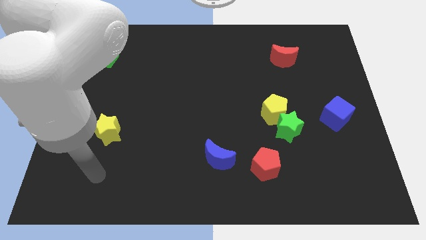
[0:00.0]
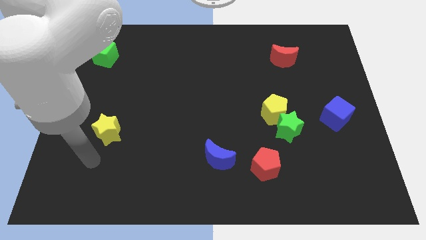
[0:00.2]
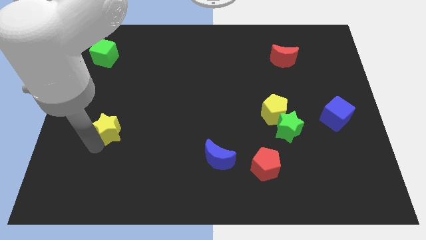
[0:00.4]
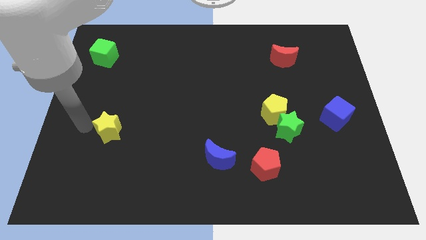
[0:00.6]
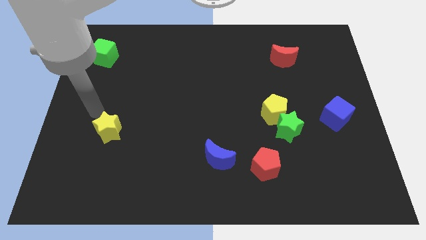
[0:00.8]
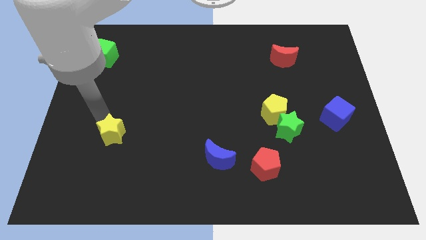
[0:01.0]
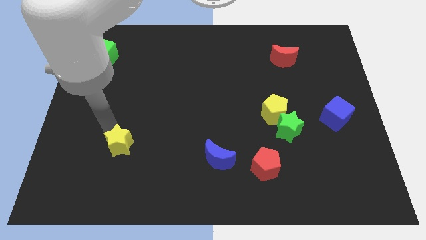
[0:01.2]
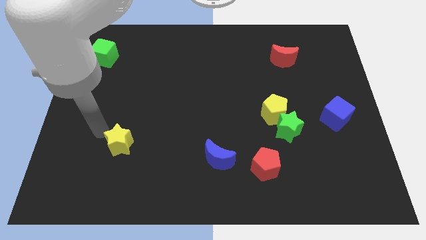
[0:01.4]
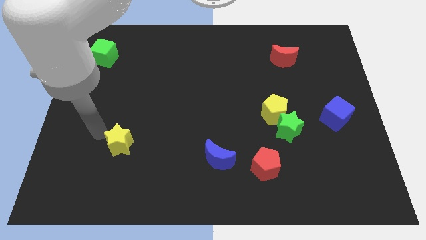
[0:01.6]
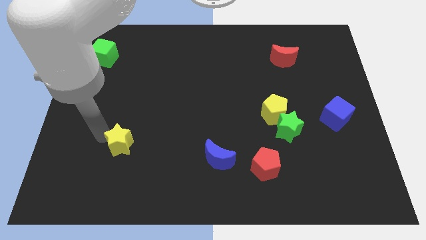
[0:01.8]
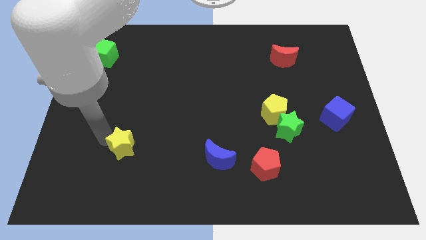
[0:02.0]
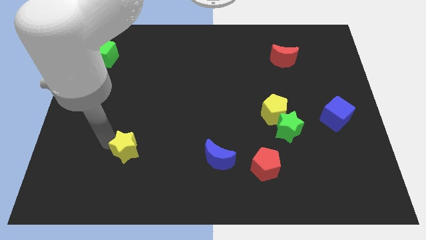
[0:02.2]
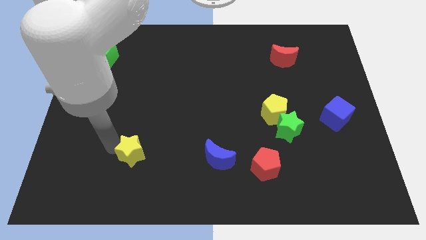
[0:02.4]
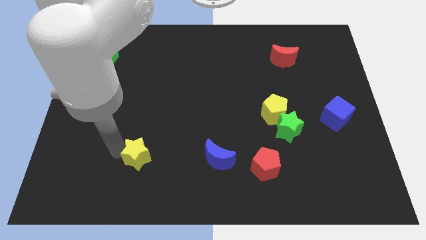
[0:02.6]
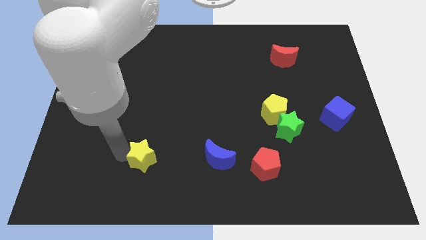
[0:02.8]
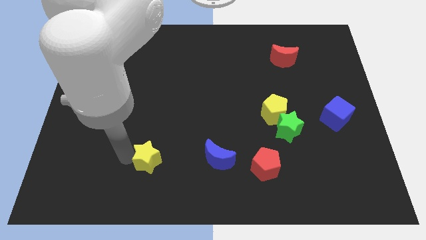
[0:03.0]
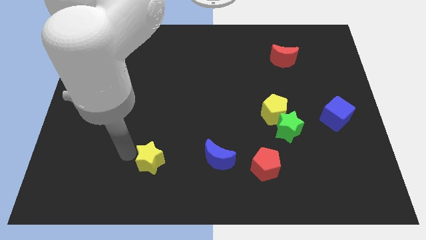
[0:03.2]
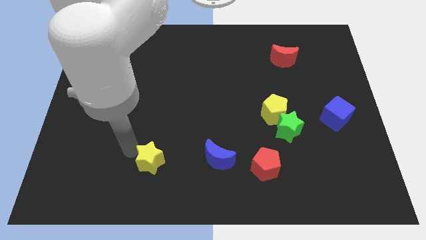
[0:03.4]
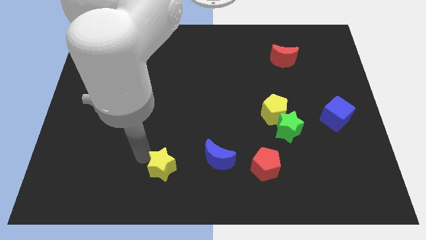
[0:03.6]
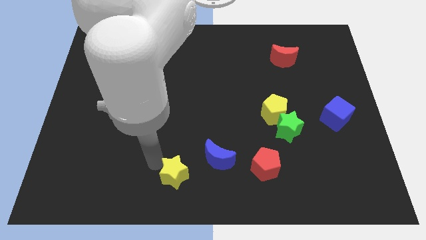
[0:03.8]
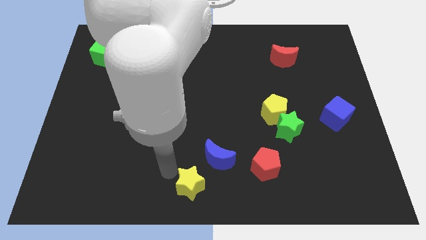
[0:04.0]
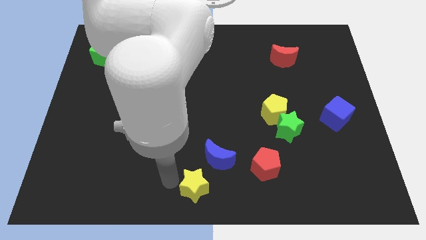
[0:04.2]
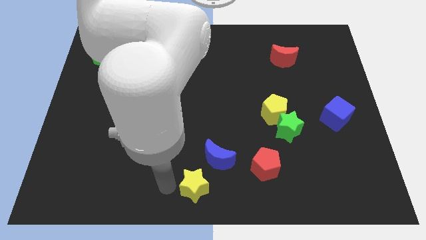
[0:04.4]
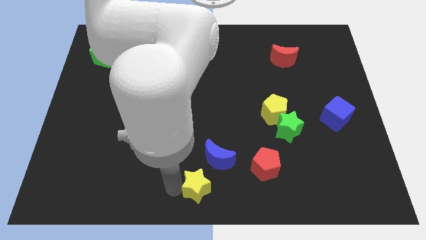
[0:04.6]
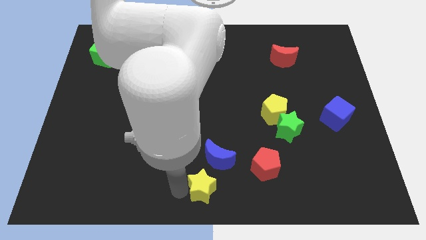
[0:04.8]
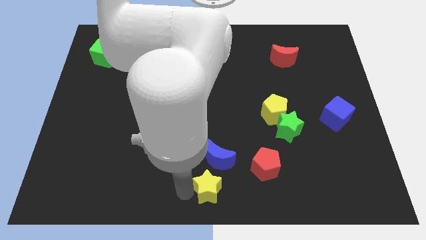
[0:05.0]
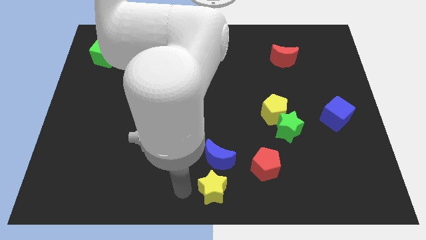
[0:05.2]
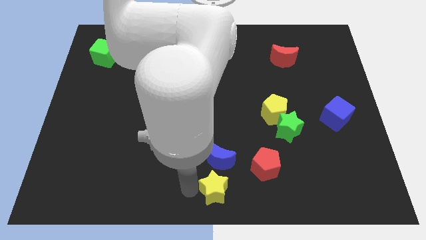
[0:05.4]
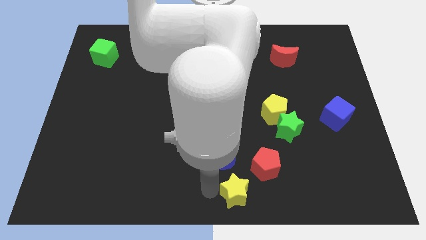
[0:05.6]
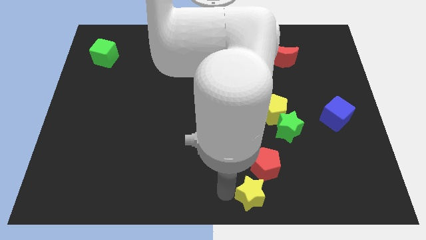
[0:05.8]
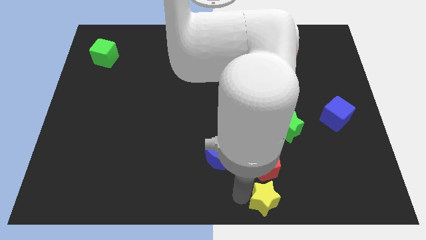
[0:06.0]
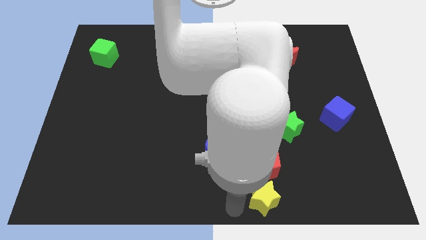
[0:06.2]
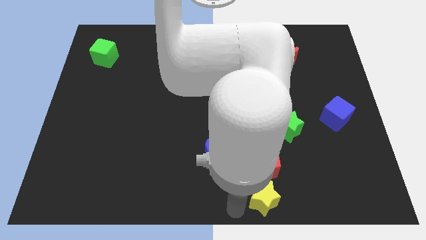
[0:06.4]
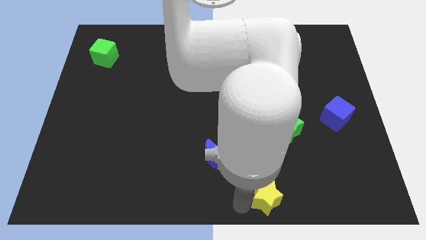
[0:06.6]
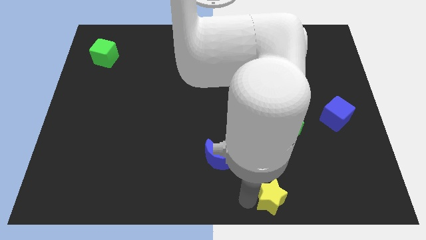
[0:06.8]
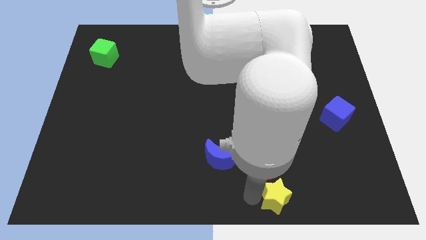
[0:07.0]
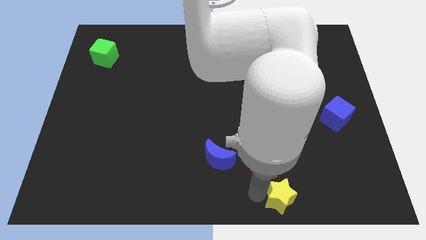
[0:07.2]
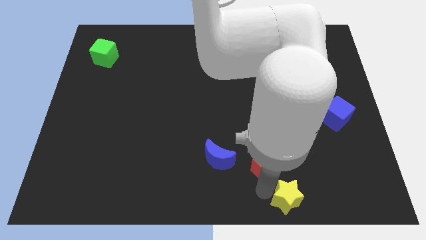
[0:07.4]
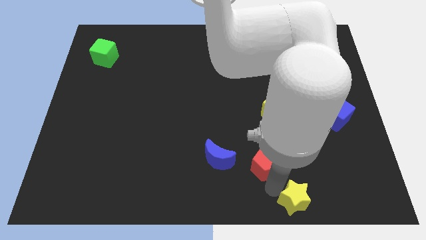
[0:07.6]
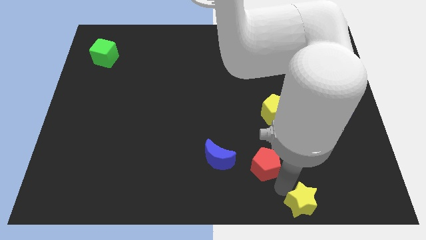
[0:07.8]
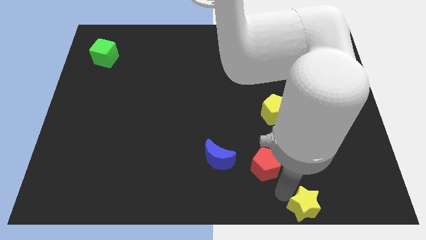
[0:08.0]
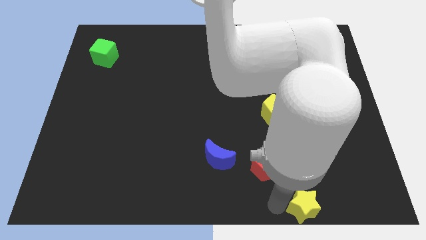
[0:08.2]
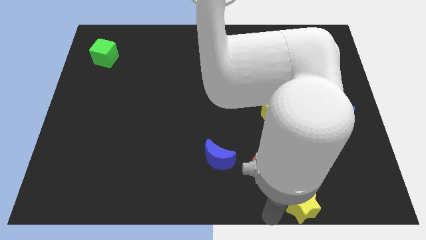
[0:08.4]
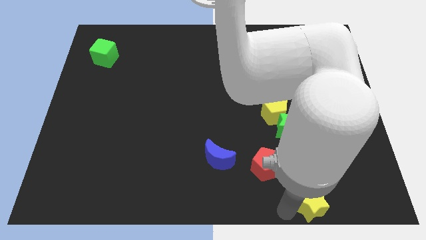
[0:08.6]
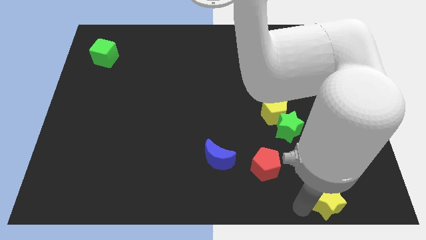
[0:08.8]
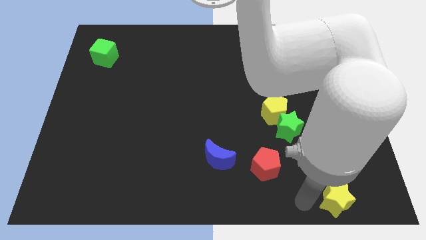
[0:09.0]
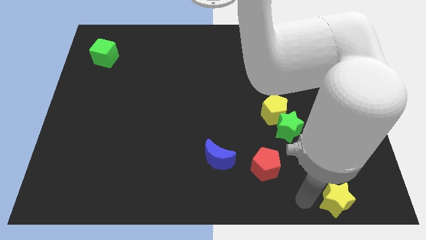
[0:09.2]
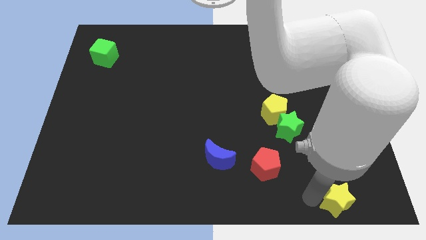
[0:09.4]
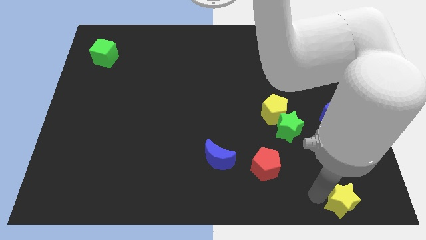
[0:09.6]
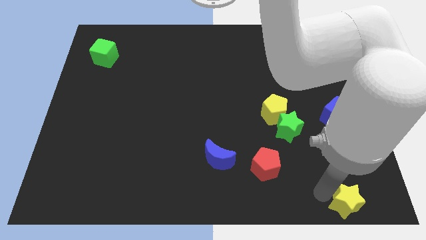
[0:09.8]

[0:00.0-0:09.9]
move the yellow star to the lower right corner

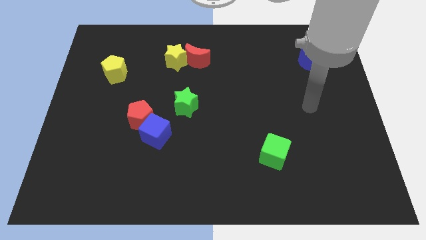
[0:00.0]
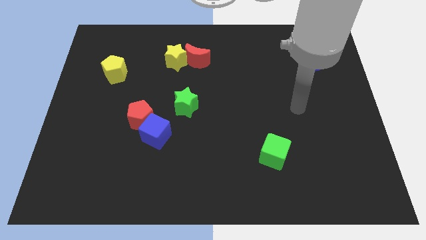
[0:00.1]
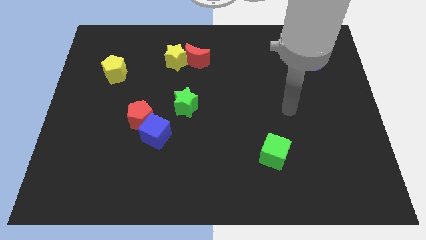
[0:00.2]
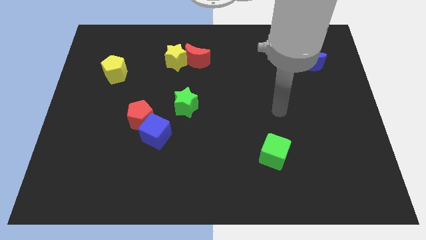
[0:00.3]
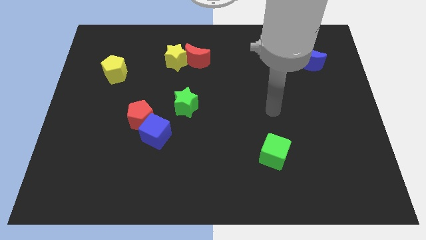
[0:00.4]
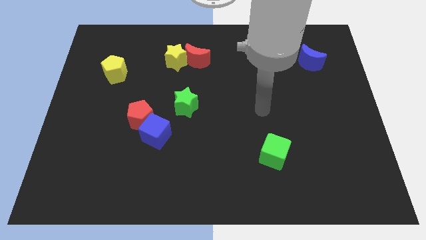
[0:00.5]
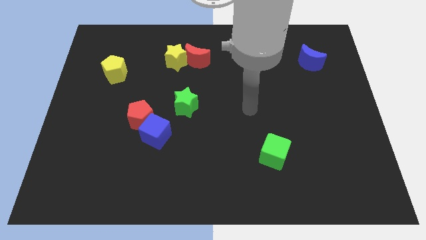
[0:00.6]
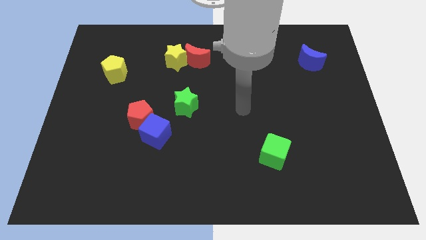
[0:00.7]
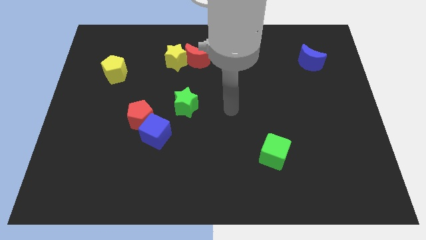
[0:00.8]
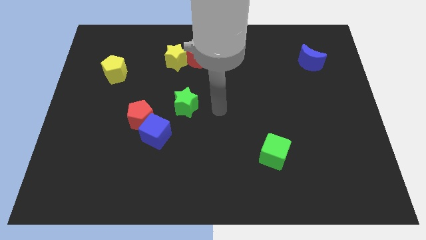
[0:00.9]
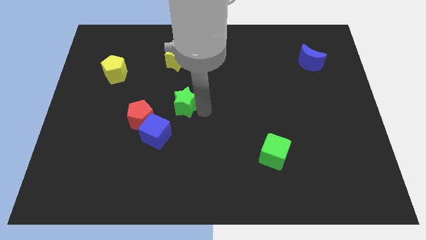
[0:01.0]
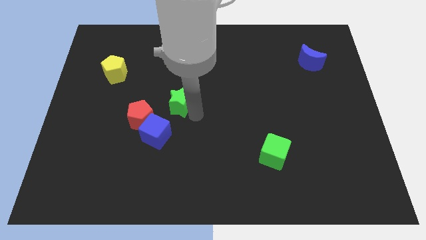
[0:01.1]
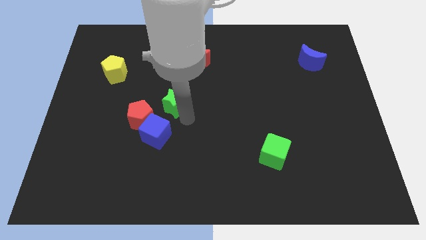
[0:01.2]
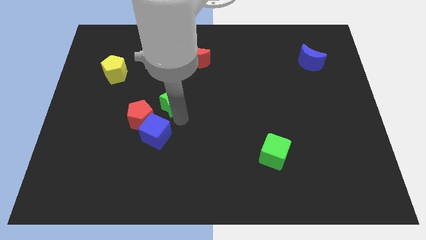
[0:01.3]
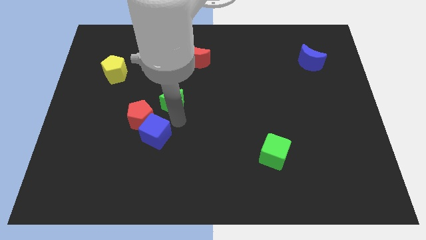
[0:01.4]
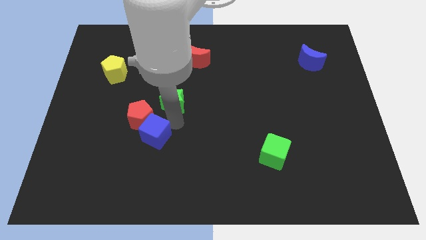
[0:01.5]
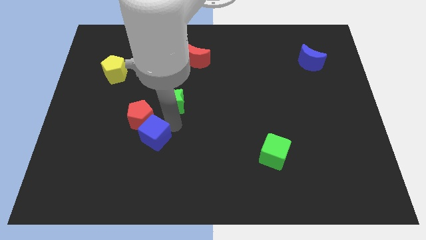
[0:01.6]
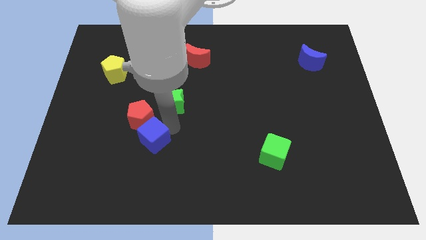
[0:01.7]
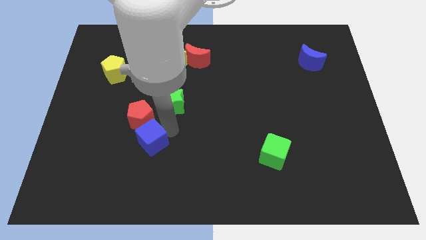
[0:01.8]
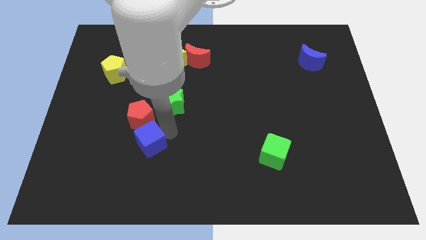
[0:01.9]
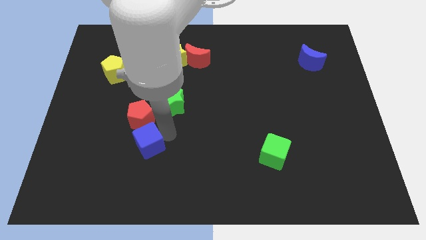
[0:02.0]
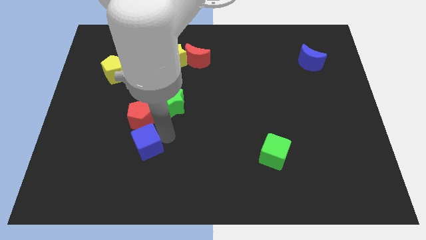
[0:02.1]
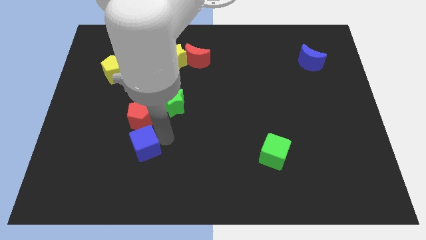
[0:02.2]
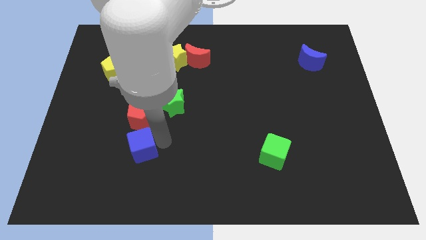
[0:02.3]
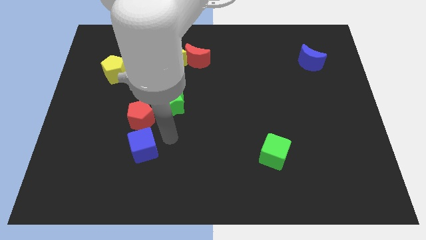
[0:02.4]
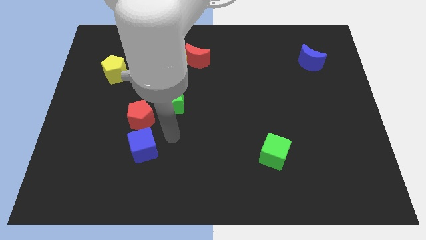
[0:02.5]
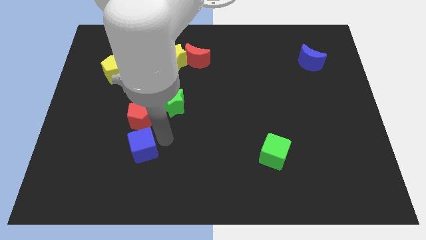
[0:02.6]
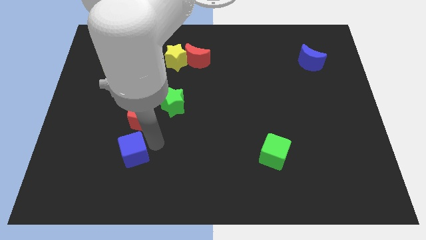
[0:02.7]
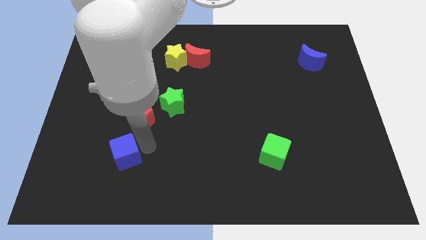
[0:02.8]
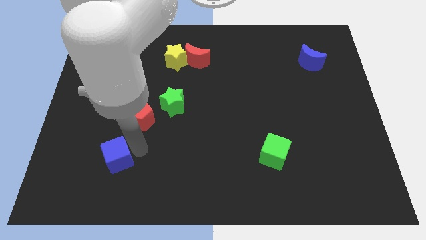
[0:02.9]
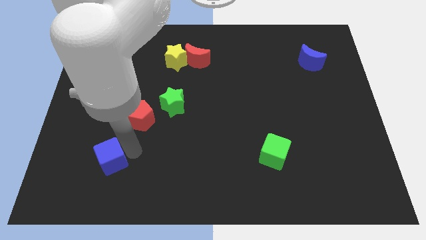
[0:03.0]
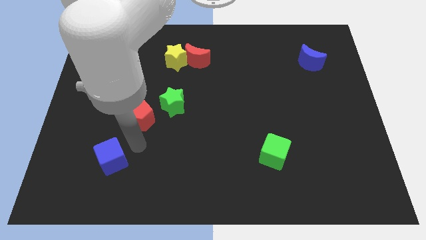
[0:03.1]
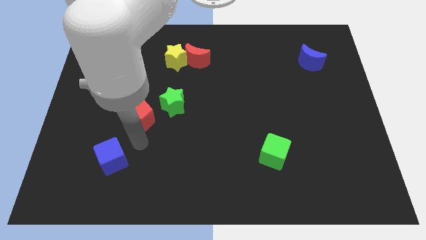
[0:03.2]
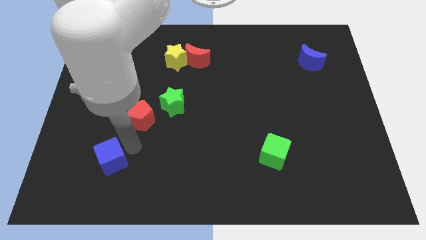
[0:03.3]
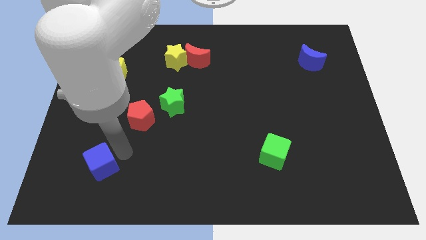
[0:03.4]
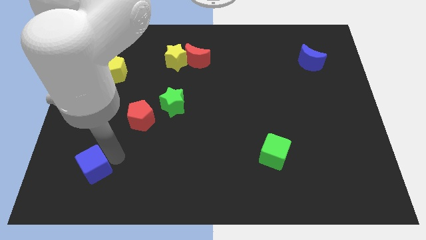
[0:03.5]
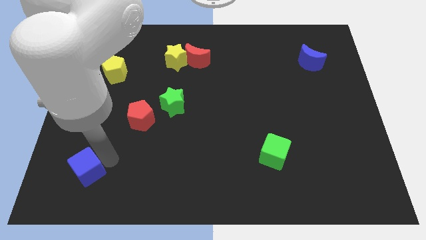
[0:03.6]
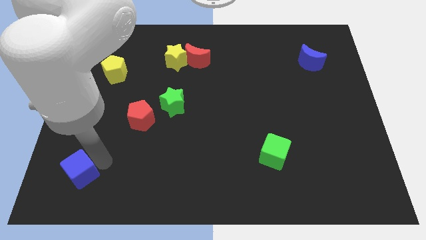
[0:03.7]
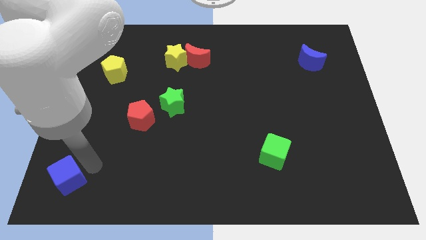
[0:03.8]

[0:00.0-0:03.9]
move the blue cube to the bottom left
